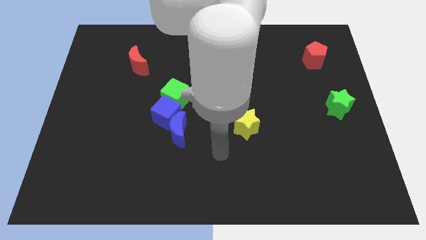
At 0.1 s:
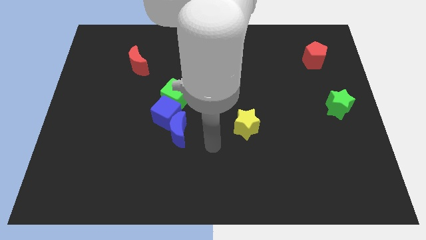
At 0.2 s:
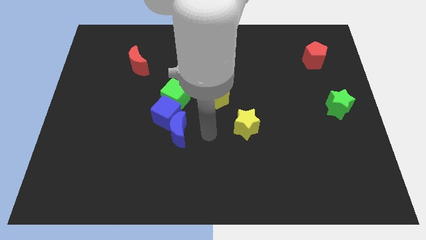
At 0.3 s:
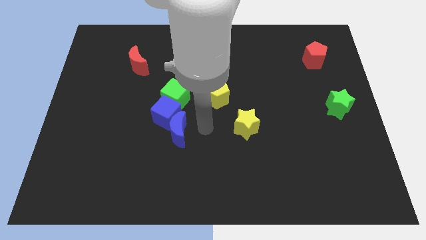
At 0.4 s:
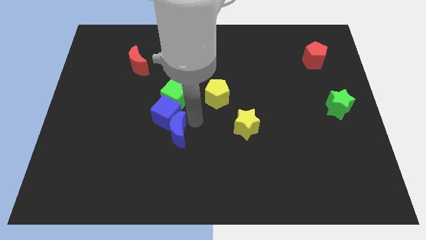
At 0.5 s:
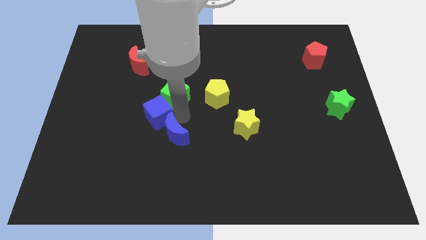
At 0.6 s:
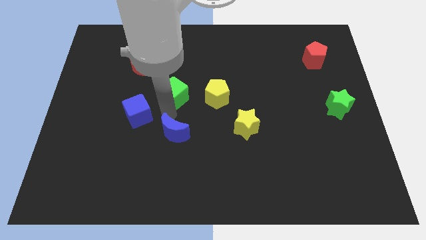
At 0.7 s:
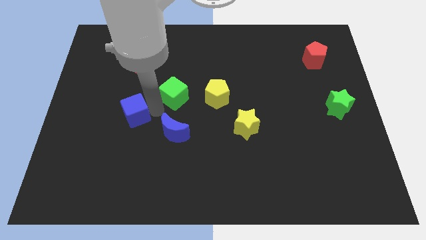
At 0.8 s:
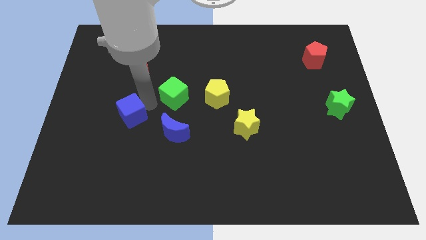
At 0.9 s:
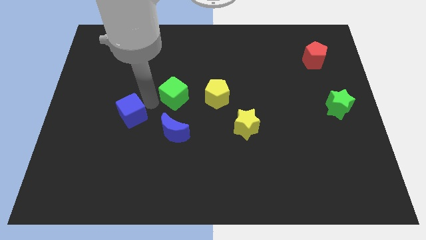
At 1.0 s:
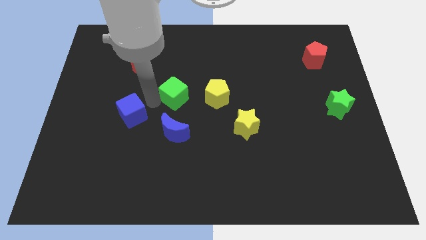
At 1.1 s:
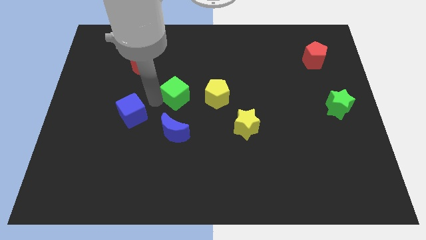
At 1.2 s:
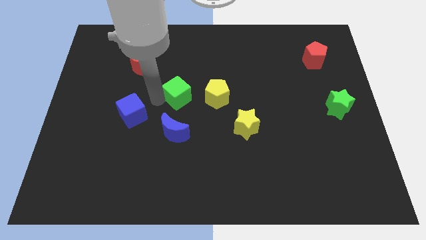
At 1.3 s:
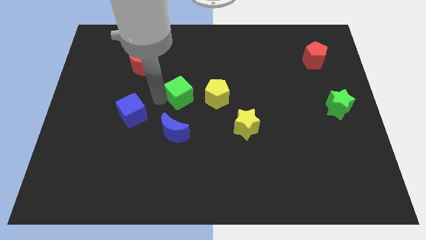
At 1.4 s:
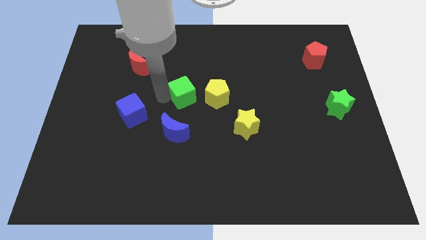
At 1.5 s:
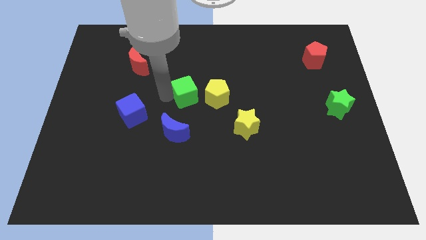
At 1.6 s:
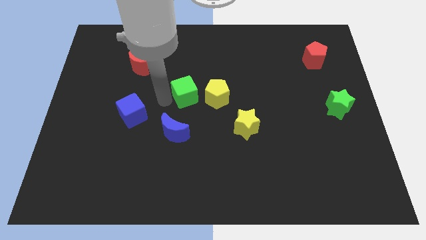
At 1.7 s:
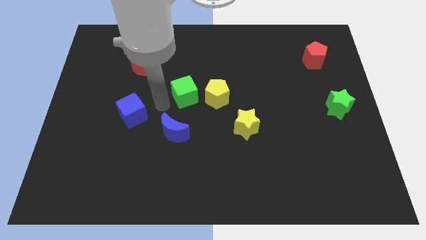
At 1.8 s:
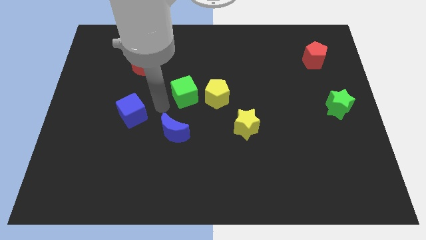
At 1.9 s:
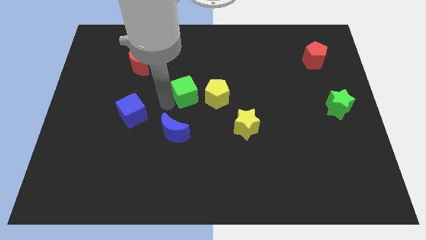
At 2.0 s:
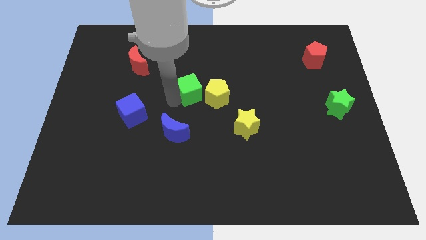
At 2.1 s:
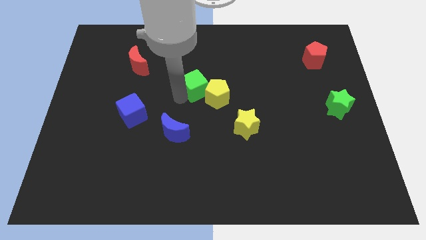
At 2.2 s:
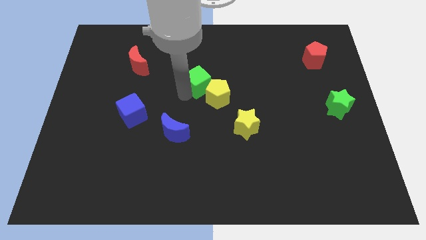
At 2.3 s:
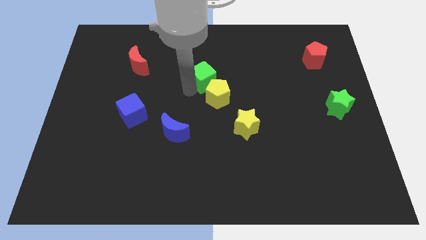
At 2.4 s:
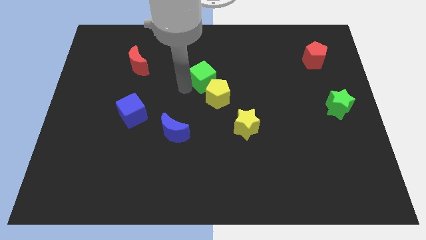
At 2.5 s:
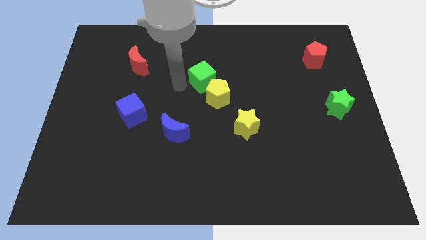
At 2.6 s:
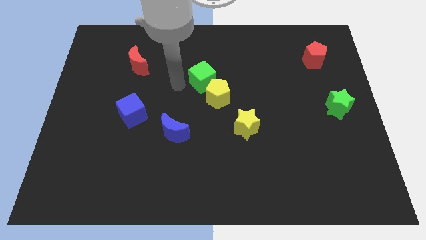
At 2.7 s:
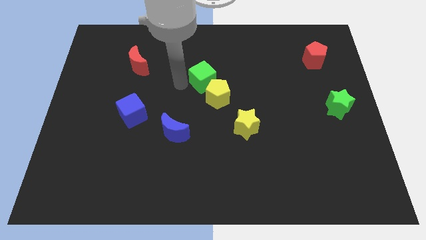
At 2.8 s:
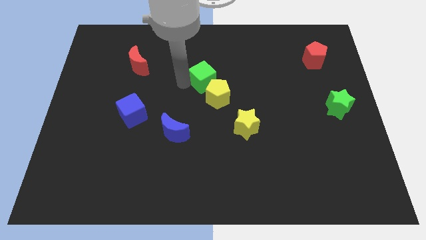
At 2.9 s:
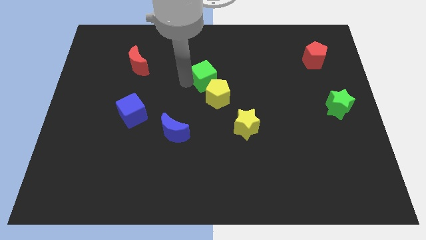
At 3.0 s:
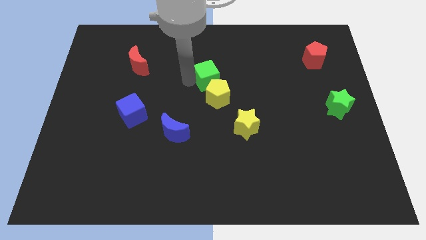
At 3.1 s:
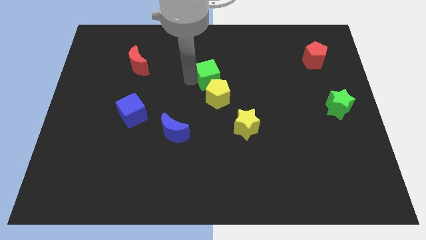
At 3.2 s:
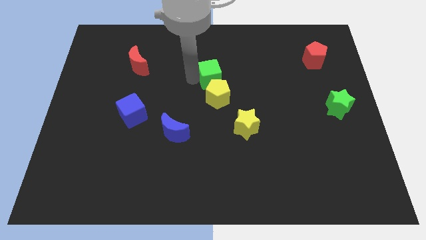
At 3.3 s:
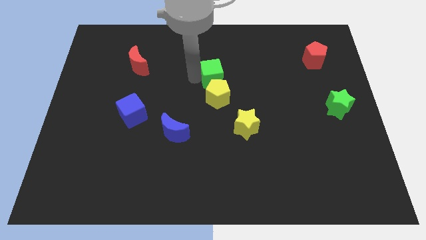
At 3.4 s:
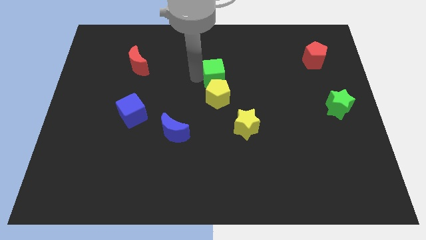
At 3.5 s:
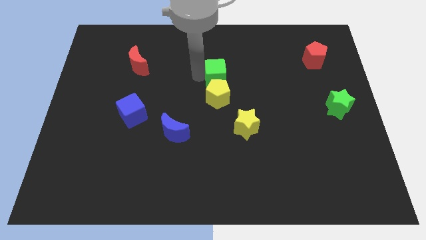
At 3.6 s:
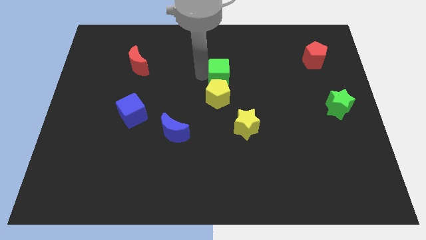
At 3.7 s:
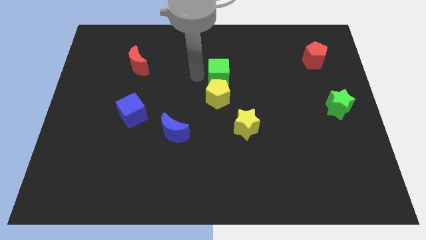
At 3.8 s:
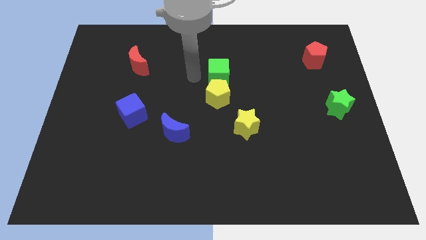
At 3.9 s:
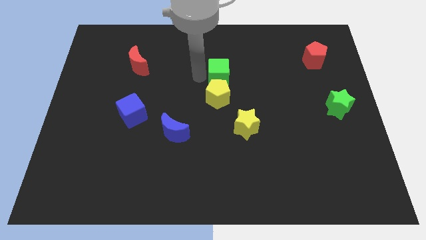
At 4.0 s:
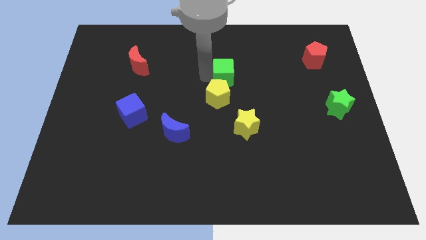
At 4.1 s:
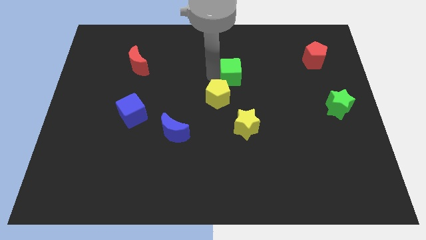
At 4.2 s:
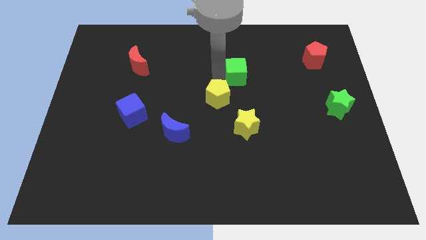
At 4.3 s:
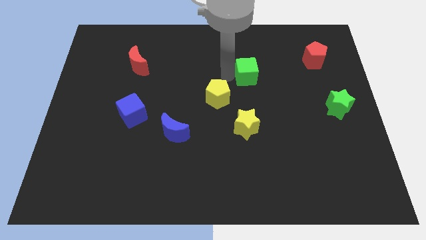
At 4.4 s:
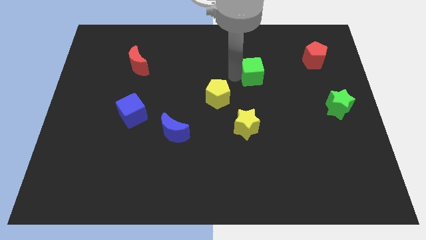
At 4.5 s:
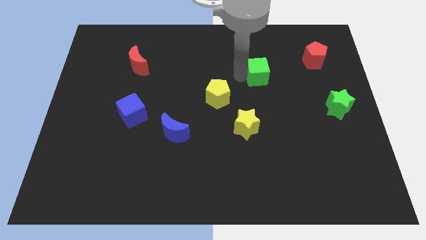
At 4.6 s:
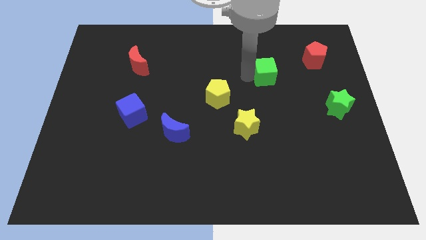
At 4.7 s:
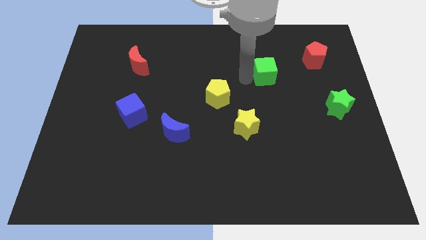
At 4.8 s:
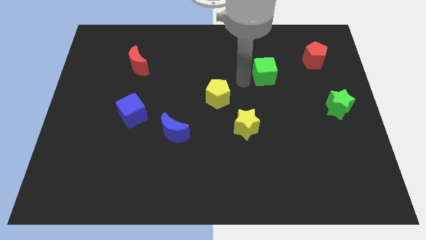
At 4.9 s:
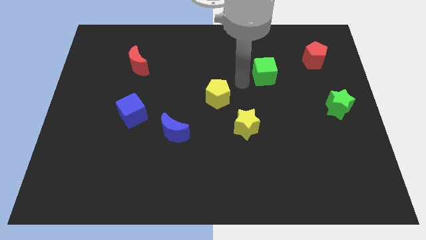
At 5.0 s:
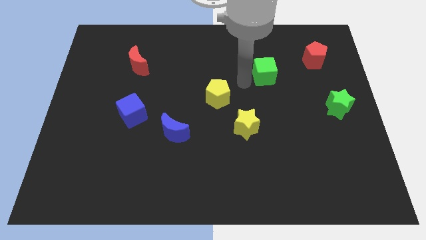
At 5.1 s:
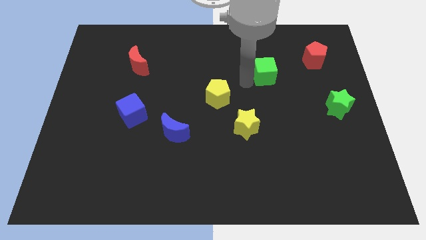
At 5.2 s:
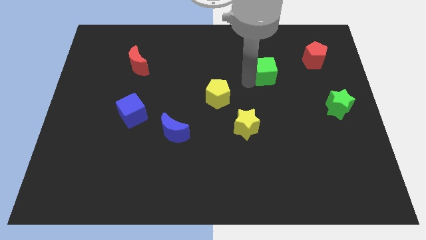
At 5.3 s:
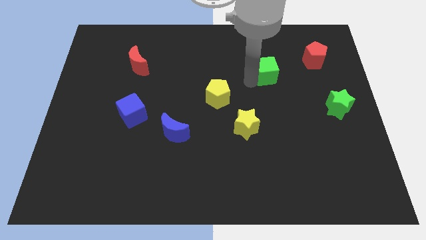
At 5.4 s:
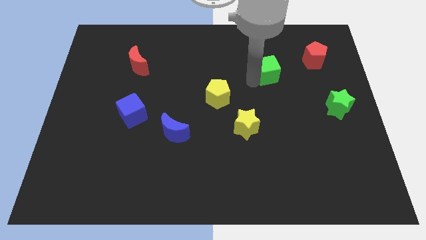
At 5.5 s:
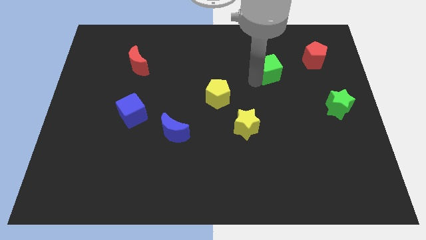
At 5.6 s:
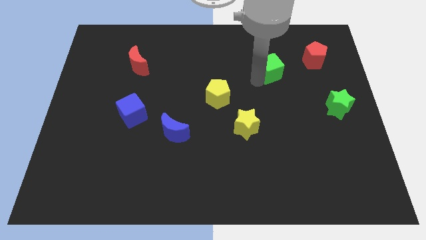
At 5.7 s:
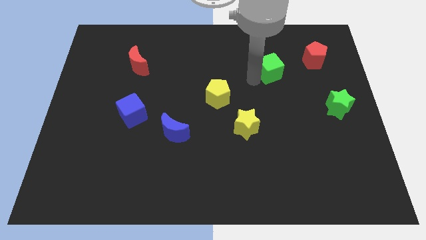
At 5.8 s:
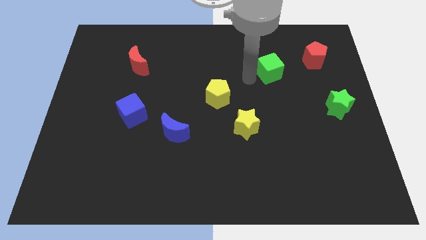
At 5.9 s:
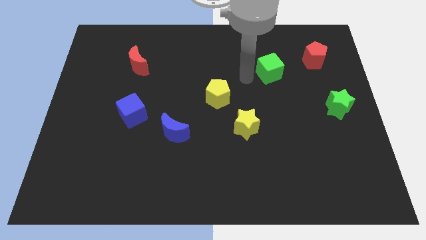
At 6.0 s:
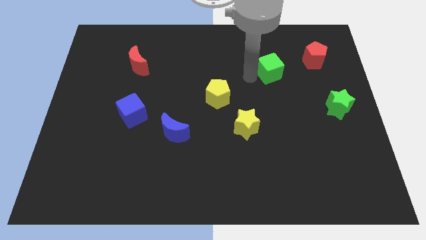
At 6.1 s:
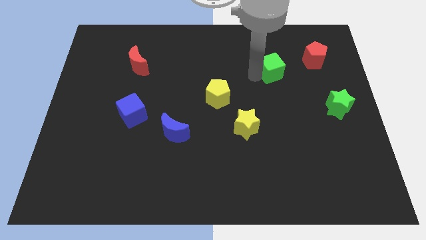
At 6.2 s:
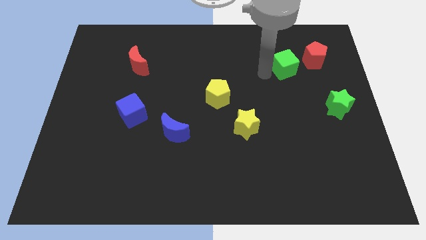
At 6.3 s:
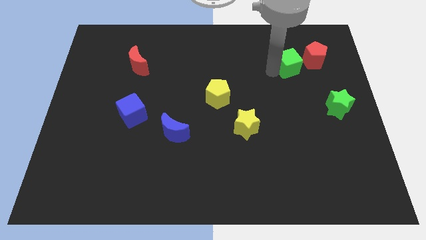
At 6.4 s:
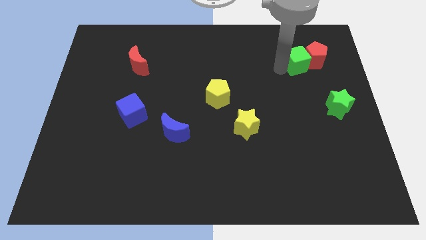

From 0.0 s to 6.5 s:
put the green cube to the red pentagon

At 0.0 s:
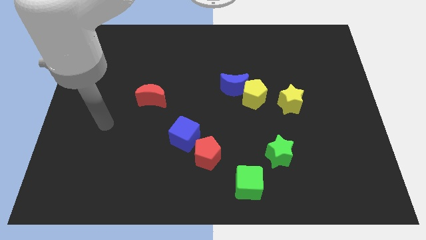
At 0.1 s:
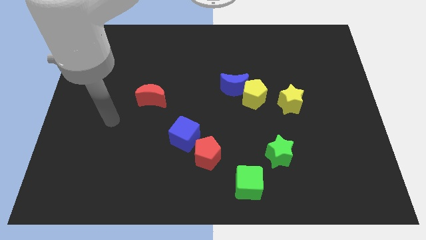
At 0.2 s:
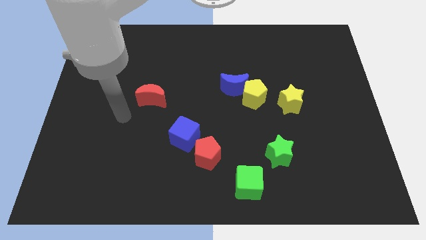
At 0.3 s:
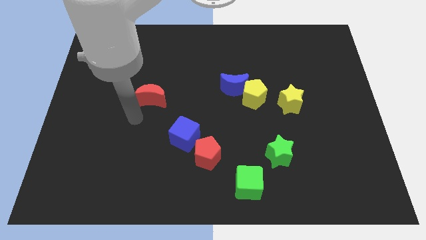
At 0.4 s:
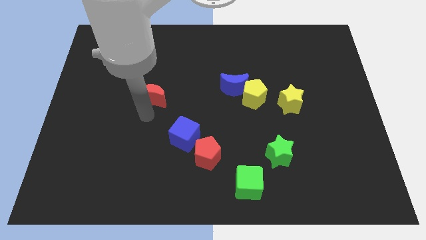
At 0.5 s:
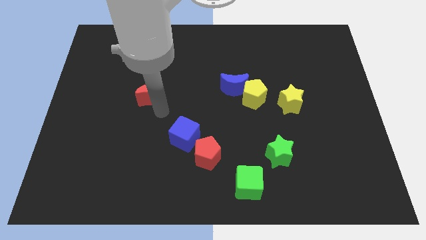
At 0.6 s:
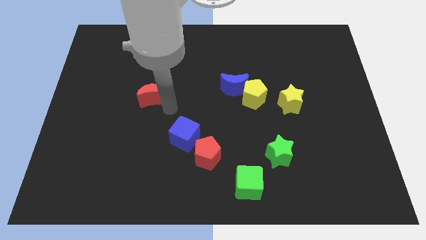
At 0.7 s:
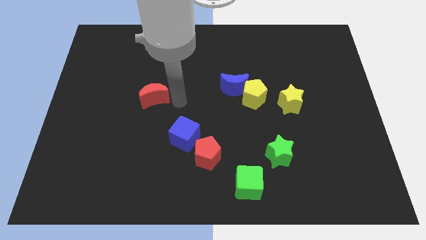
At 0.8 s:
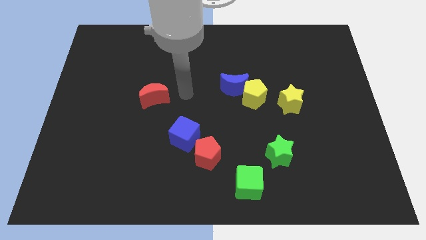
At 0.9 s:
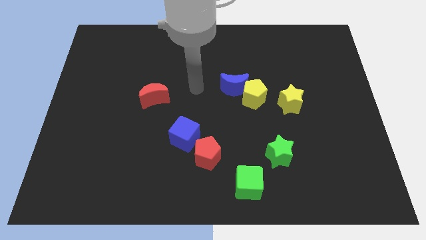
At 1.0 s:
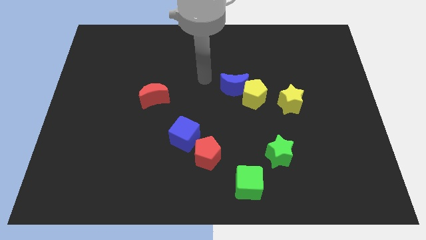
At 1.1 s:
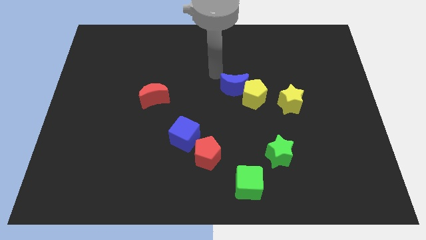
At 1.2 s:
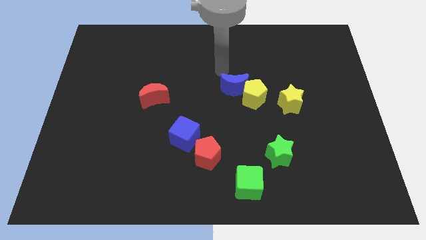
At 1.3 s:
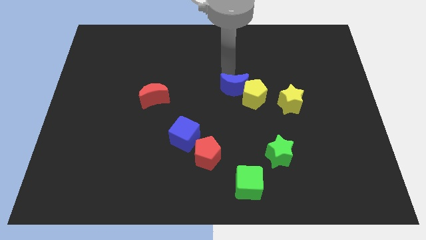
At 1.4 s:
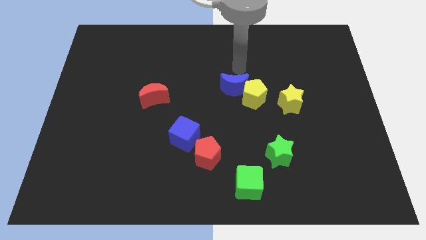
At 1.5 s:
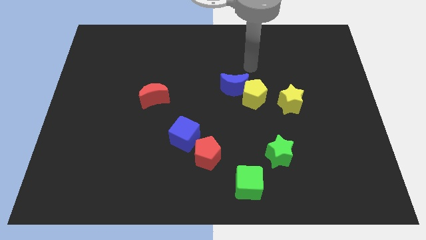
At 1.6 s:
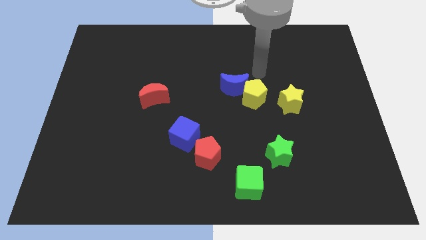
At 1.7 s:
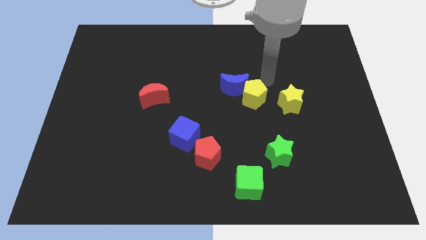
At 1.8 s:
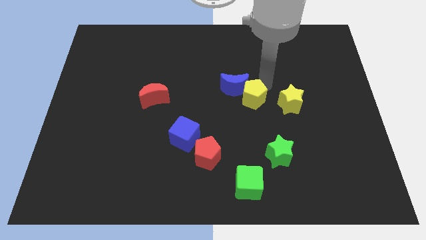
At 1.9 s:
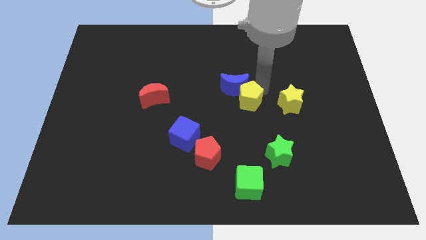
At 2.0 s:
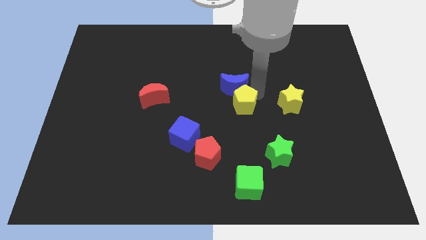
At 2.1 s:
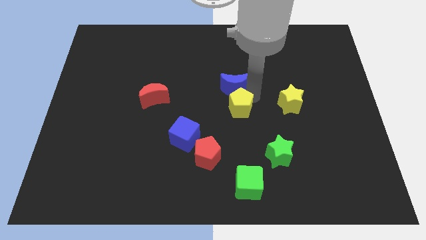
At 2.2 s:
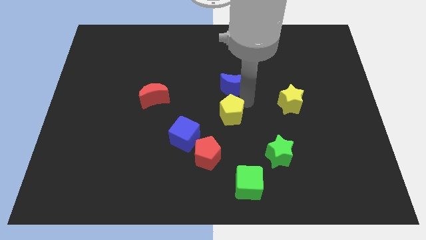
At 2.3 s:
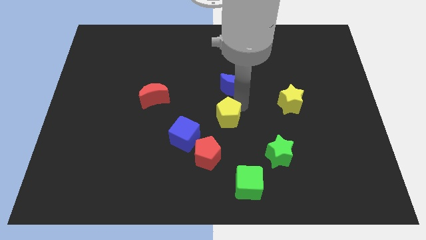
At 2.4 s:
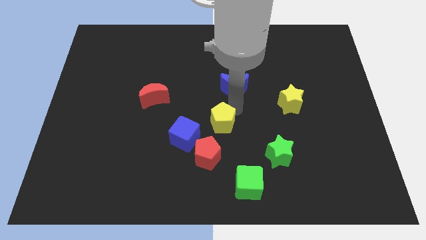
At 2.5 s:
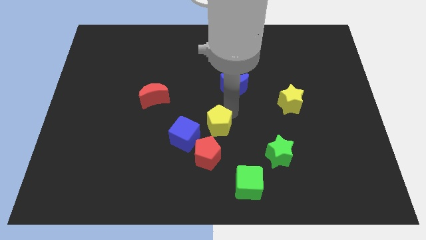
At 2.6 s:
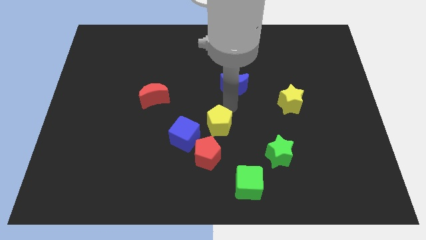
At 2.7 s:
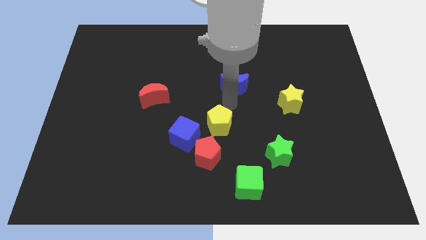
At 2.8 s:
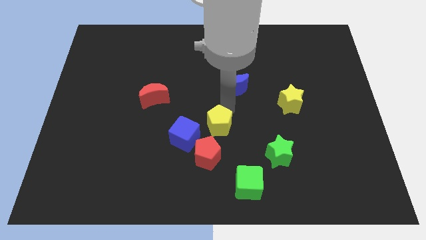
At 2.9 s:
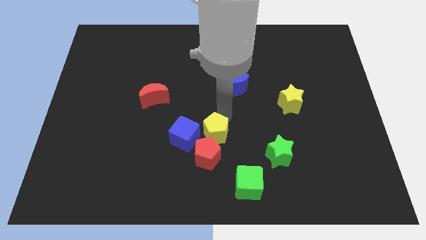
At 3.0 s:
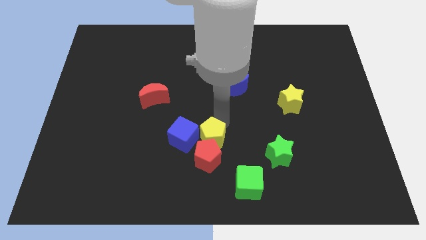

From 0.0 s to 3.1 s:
slide the yellow pentagon close to the red pentagon
